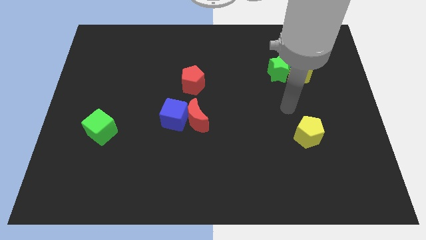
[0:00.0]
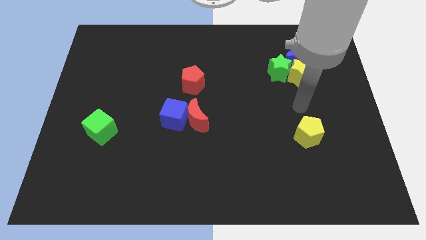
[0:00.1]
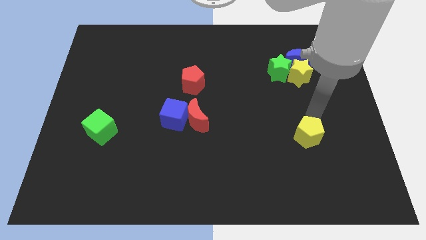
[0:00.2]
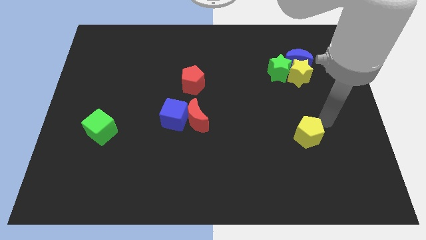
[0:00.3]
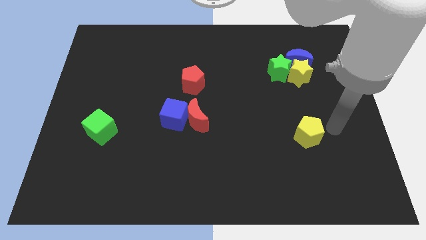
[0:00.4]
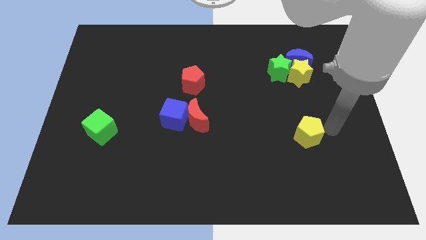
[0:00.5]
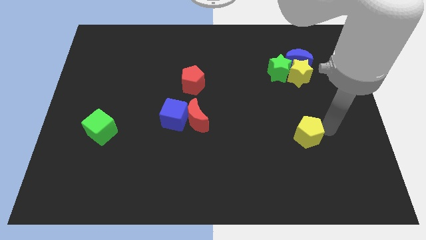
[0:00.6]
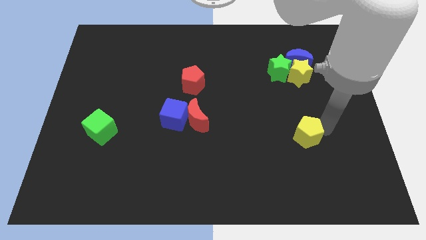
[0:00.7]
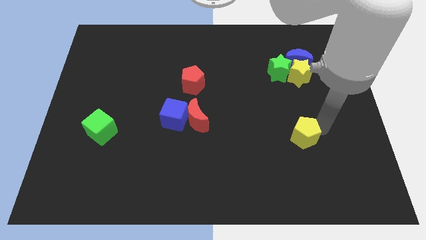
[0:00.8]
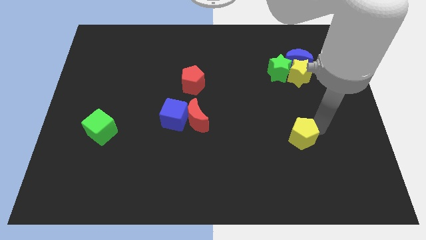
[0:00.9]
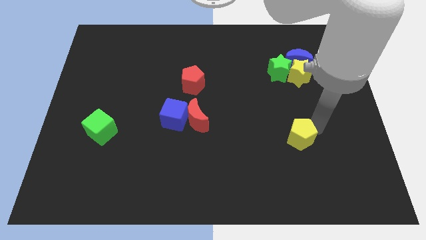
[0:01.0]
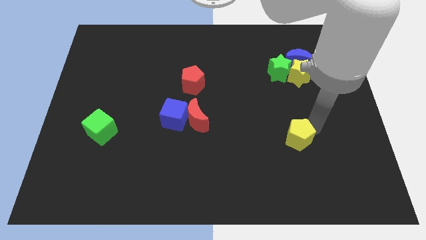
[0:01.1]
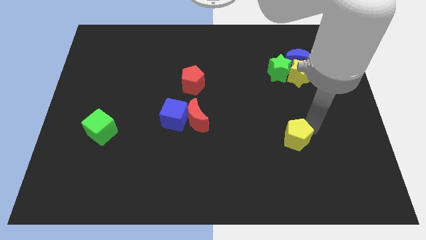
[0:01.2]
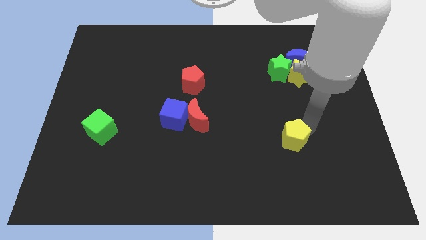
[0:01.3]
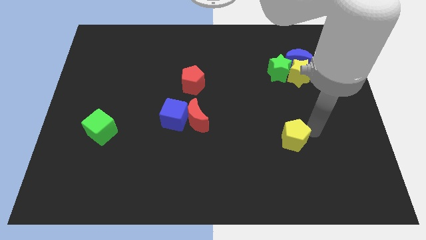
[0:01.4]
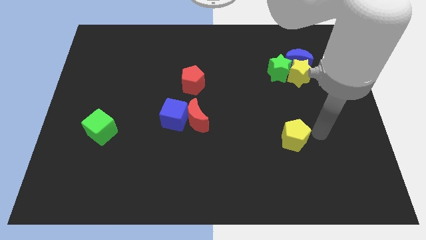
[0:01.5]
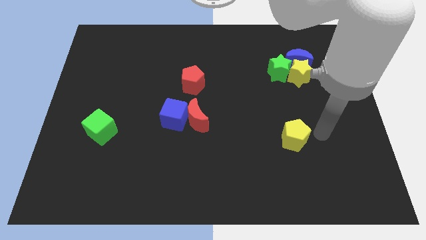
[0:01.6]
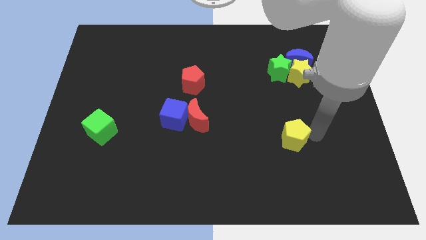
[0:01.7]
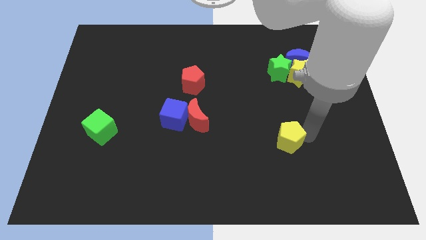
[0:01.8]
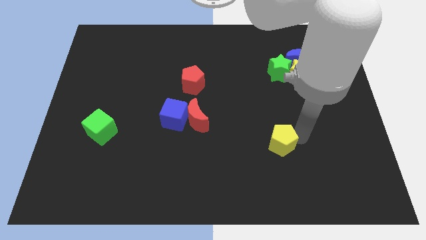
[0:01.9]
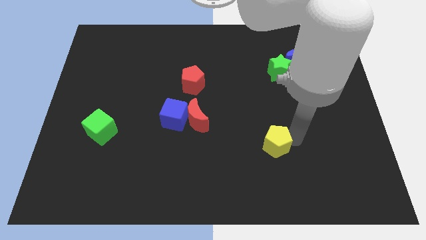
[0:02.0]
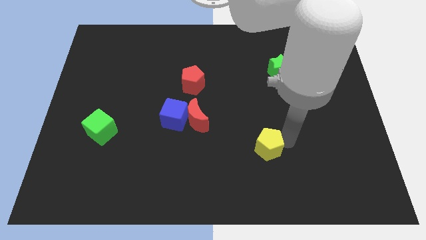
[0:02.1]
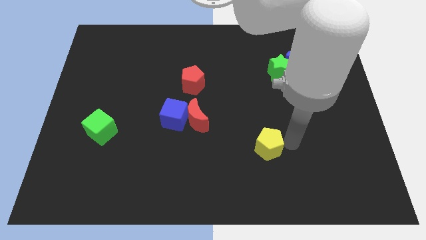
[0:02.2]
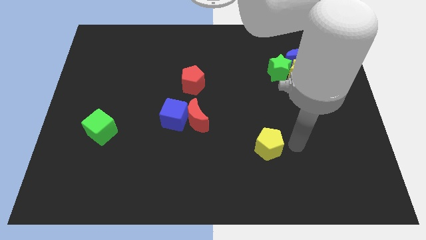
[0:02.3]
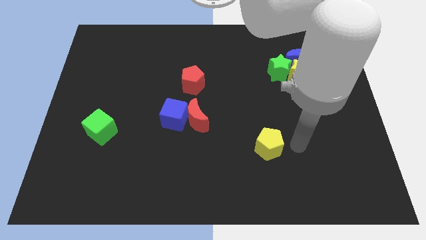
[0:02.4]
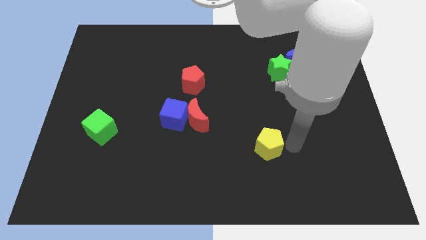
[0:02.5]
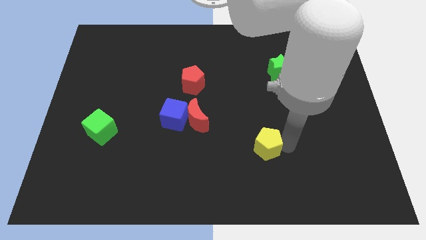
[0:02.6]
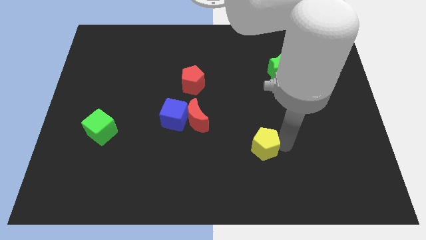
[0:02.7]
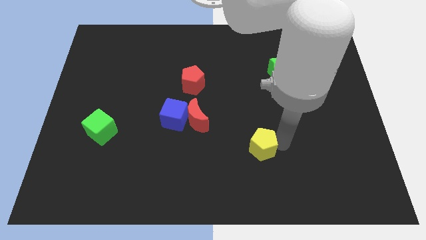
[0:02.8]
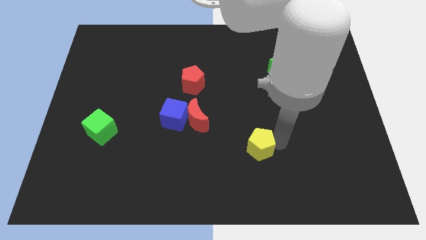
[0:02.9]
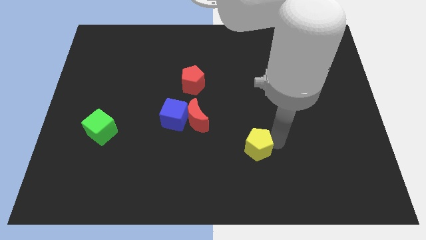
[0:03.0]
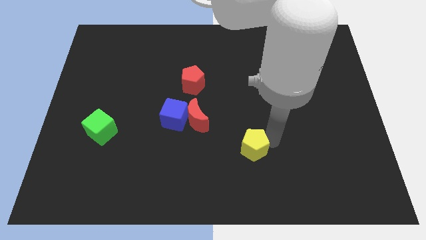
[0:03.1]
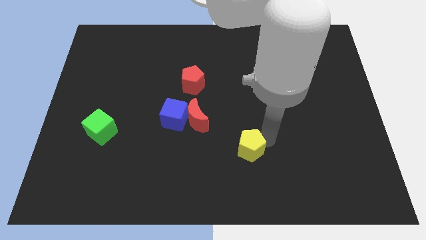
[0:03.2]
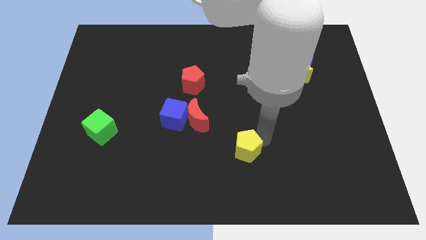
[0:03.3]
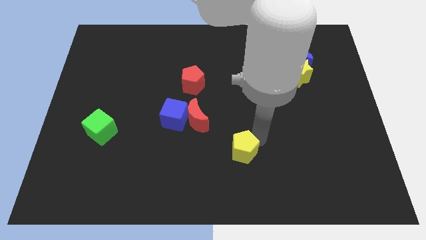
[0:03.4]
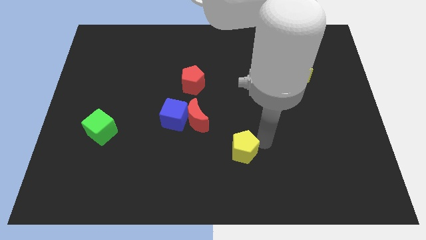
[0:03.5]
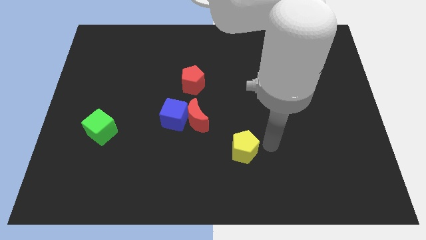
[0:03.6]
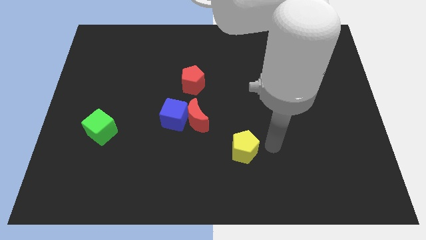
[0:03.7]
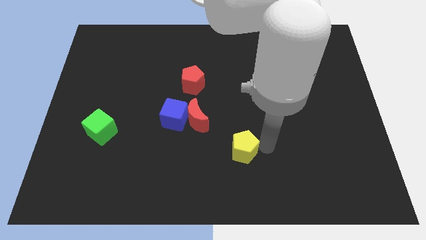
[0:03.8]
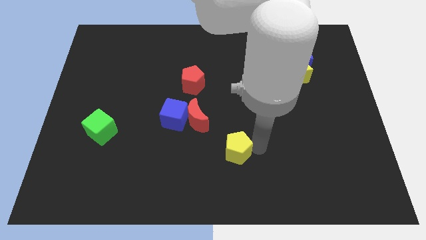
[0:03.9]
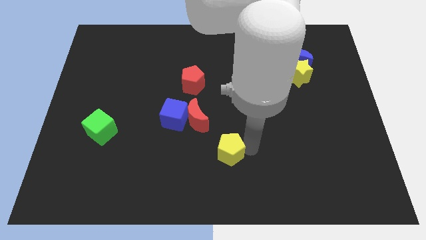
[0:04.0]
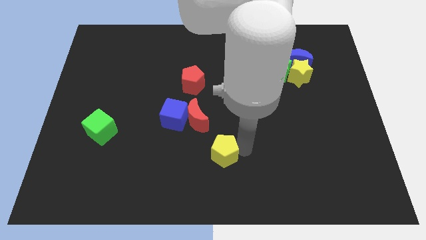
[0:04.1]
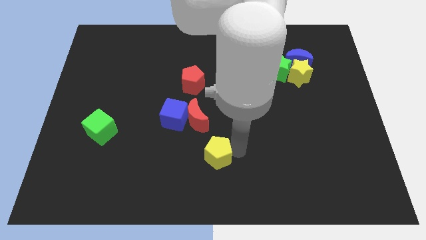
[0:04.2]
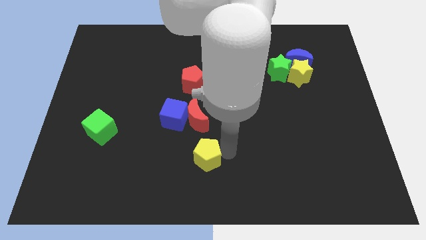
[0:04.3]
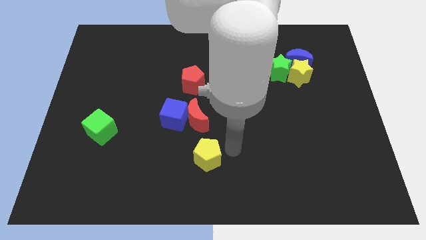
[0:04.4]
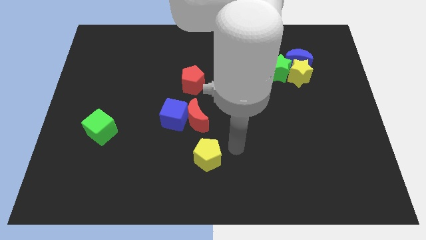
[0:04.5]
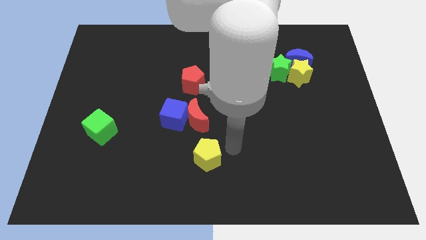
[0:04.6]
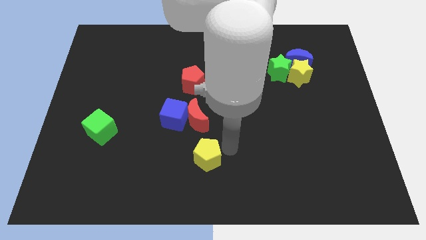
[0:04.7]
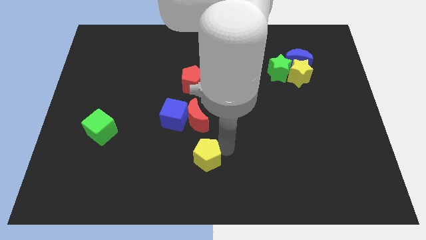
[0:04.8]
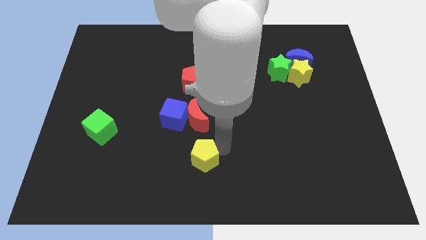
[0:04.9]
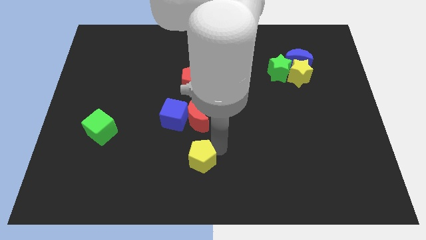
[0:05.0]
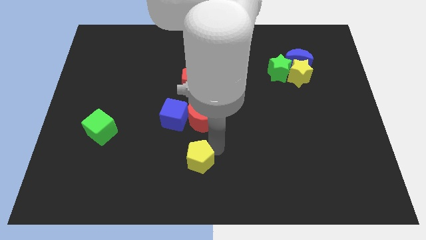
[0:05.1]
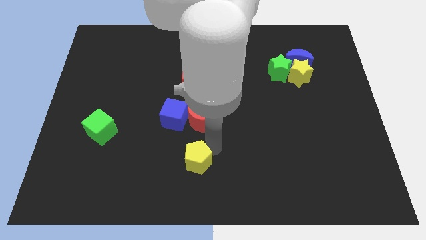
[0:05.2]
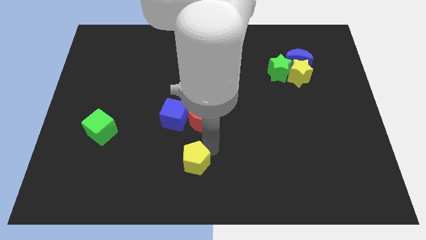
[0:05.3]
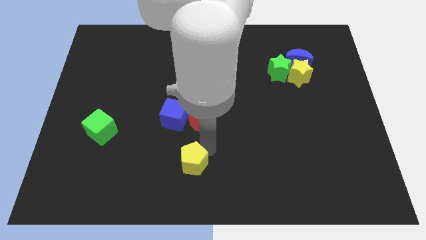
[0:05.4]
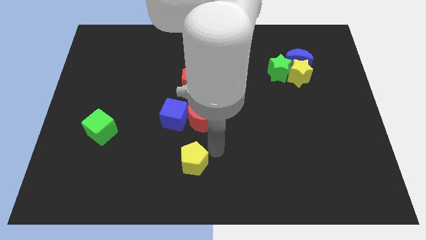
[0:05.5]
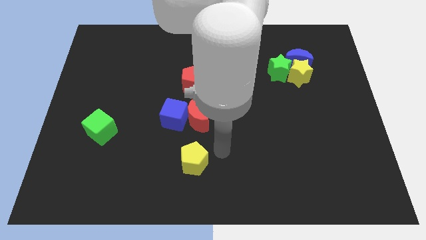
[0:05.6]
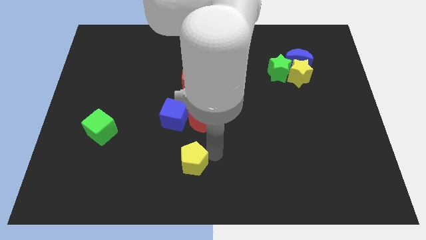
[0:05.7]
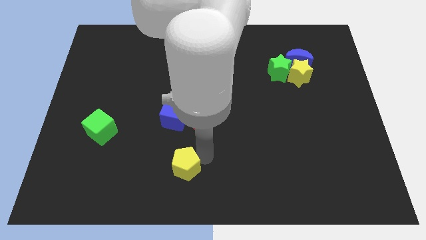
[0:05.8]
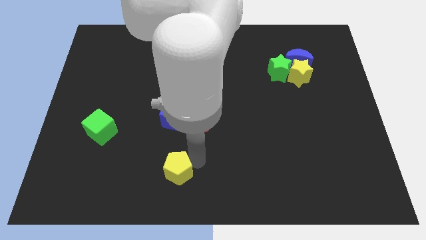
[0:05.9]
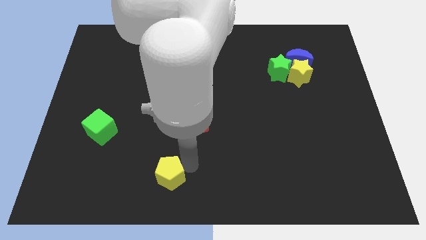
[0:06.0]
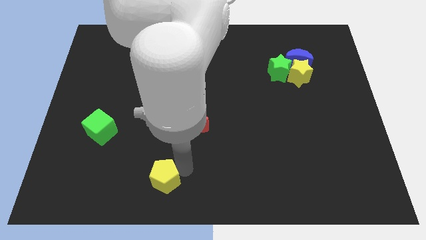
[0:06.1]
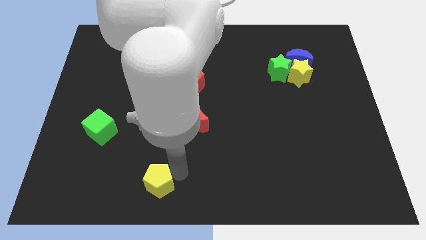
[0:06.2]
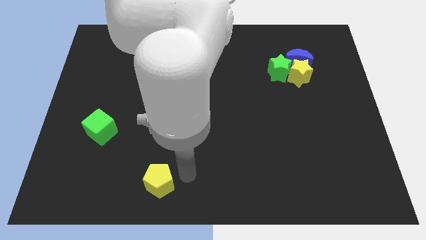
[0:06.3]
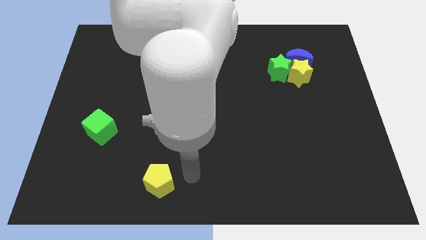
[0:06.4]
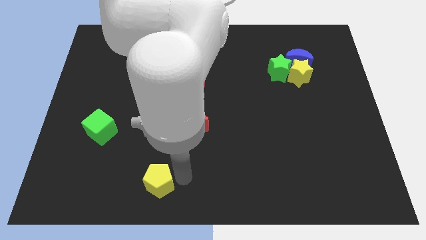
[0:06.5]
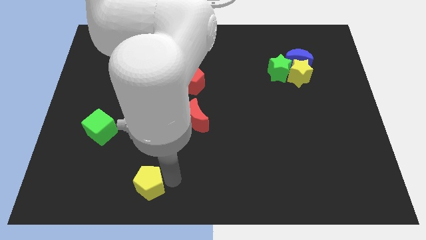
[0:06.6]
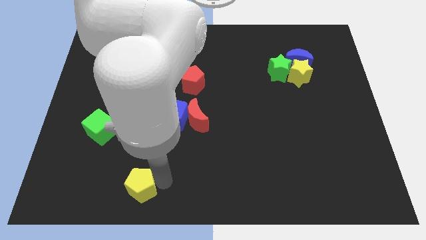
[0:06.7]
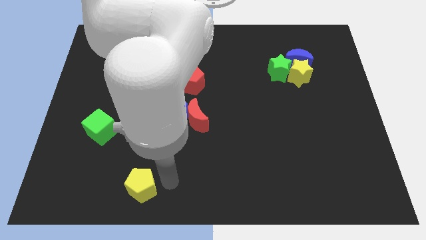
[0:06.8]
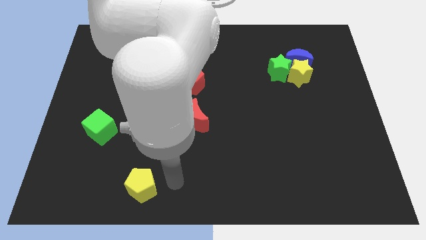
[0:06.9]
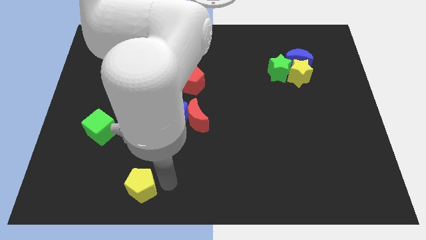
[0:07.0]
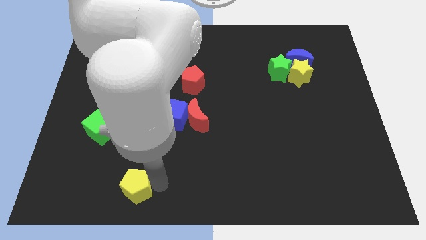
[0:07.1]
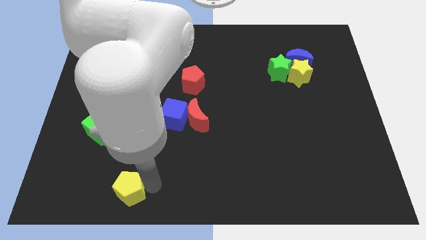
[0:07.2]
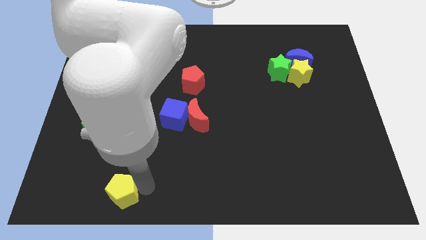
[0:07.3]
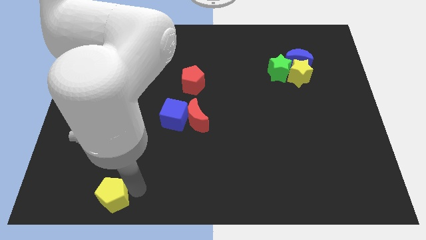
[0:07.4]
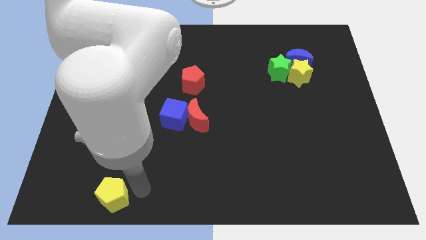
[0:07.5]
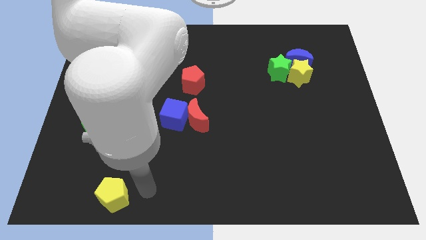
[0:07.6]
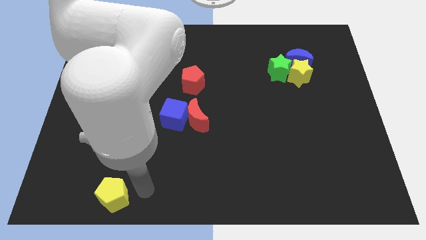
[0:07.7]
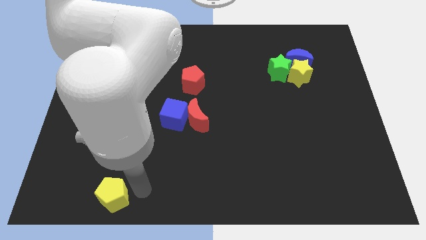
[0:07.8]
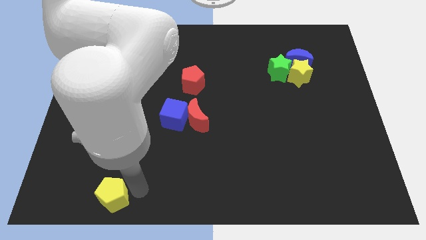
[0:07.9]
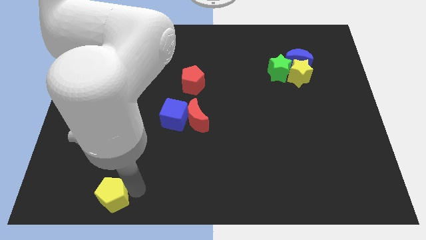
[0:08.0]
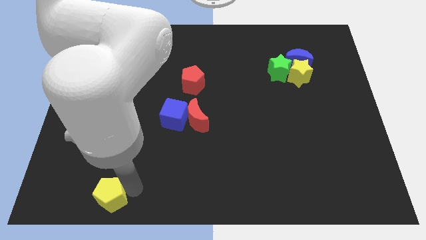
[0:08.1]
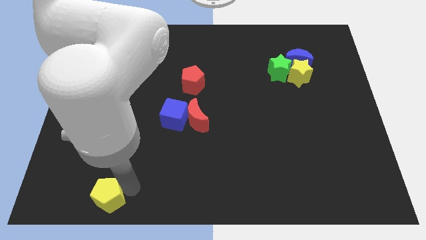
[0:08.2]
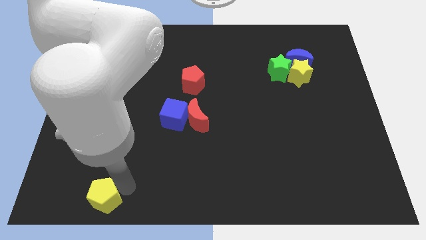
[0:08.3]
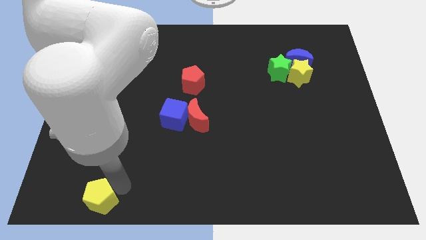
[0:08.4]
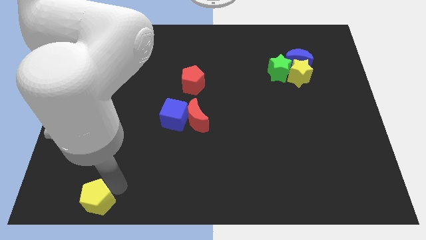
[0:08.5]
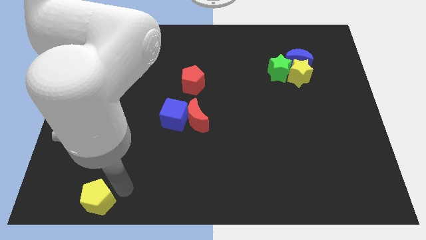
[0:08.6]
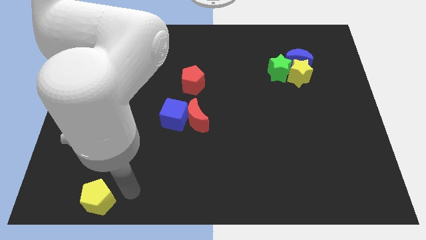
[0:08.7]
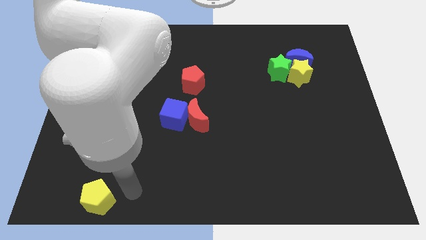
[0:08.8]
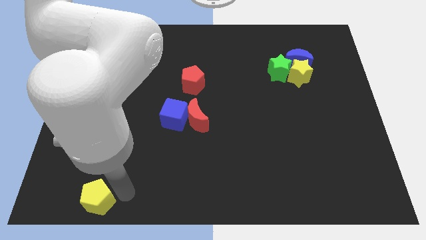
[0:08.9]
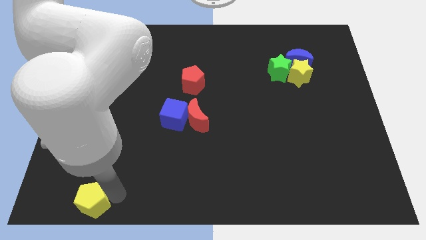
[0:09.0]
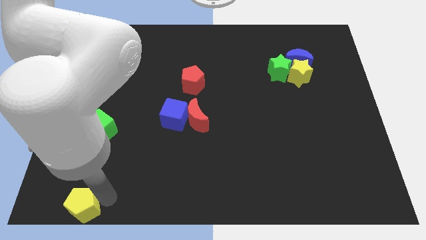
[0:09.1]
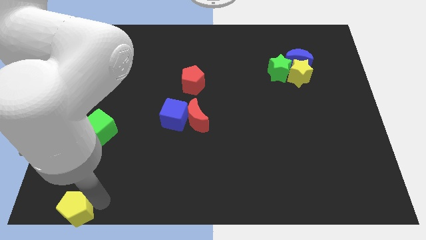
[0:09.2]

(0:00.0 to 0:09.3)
move the yellow pentagon to the bottom left
